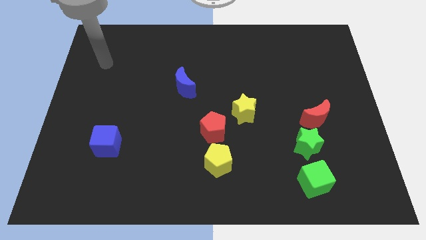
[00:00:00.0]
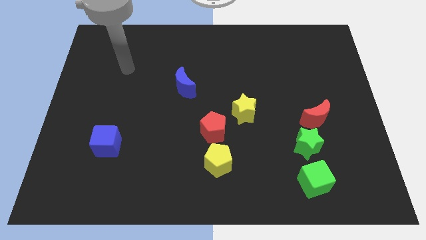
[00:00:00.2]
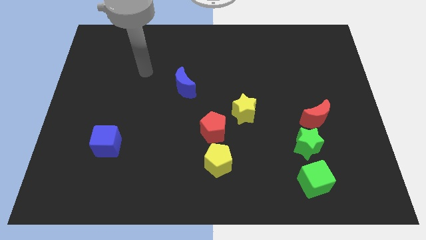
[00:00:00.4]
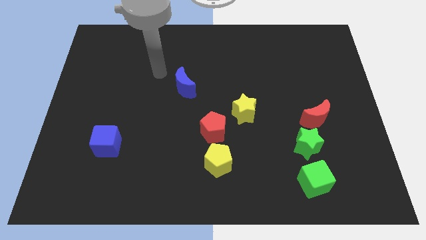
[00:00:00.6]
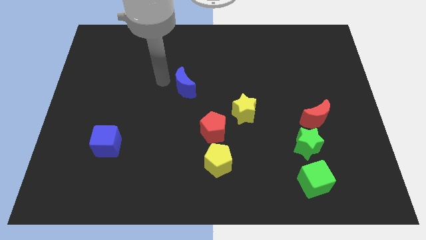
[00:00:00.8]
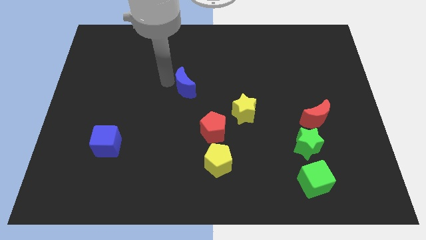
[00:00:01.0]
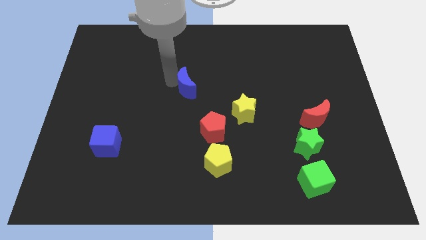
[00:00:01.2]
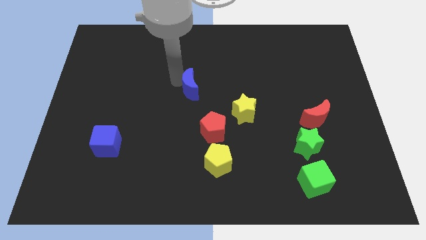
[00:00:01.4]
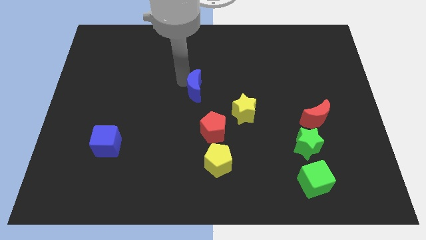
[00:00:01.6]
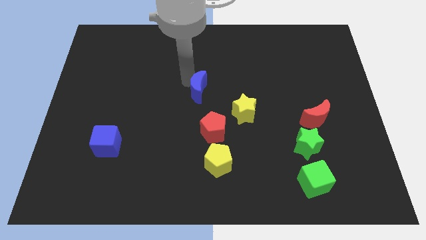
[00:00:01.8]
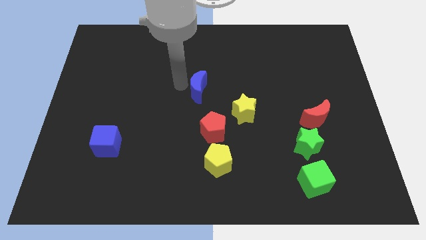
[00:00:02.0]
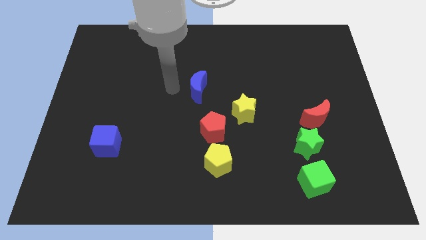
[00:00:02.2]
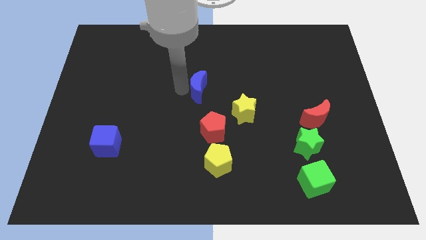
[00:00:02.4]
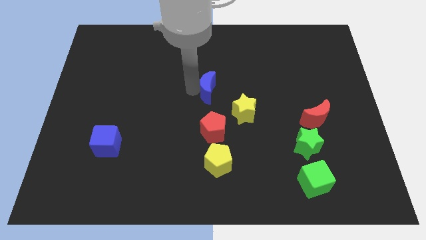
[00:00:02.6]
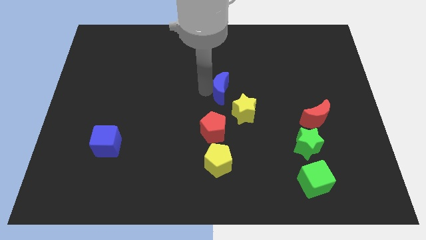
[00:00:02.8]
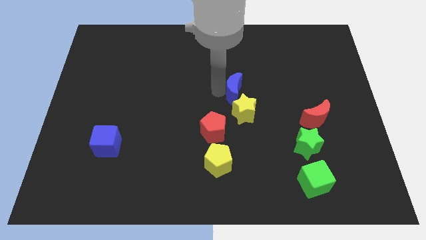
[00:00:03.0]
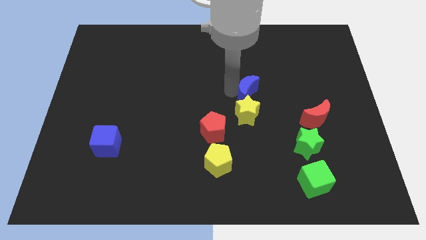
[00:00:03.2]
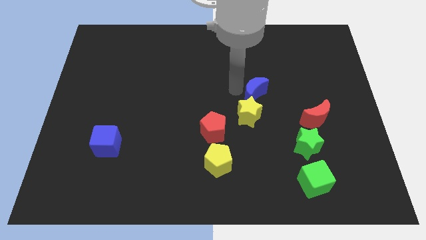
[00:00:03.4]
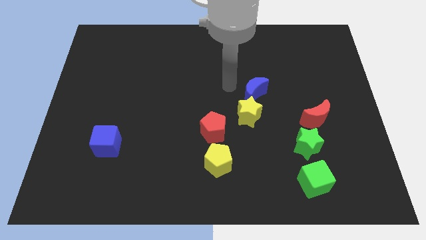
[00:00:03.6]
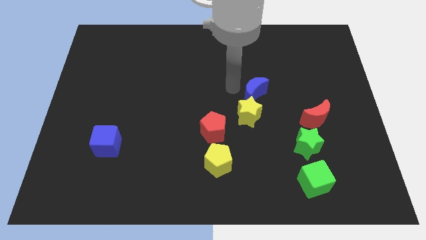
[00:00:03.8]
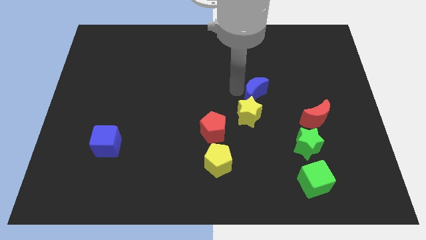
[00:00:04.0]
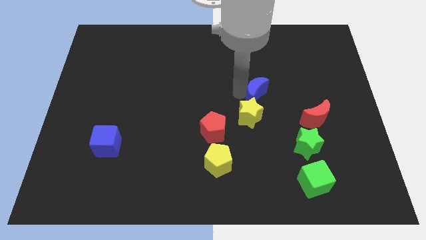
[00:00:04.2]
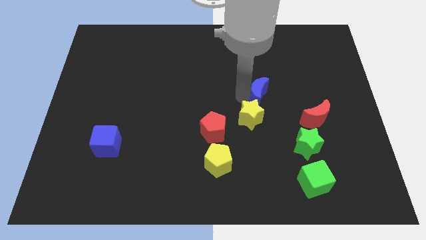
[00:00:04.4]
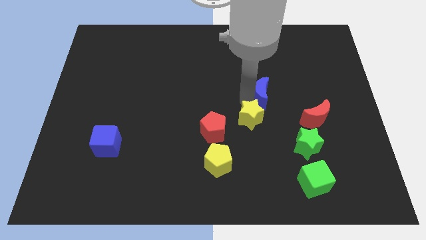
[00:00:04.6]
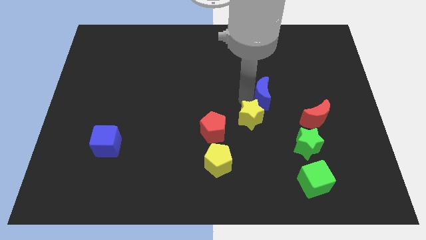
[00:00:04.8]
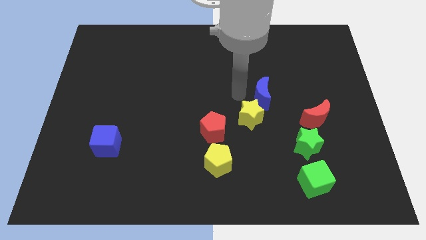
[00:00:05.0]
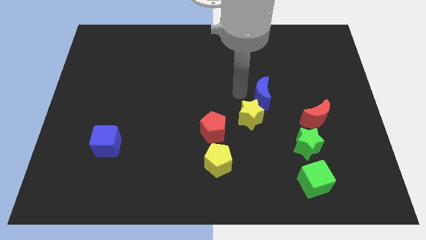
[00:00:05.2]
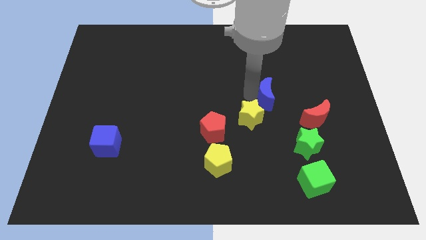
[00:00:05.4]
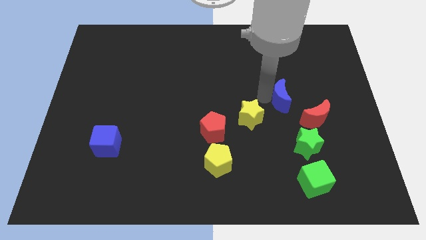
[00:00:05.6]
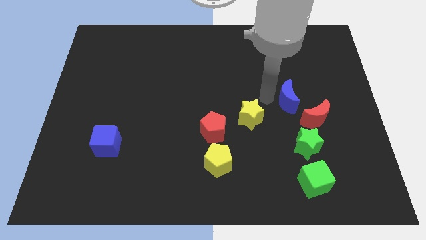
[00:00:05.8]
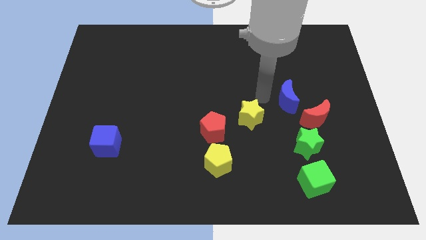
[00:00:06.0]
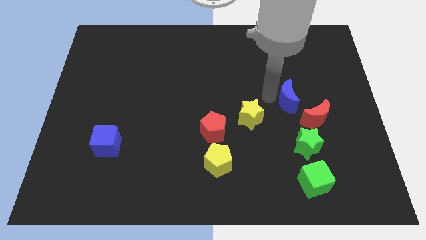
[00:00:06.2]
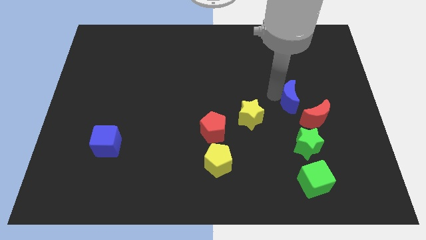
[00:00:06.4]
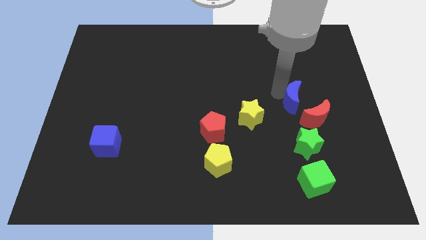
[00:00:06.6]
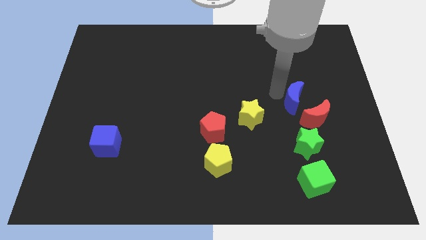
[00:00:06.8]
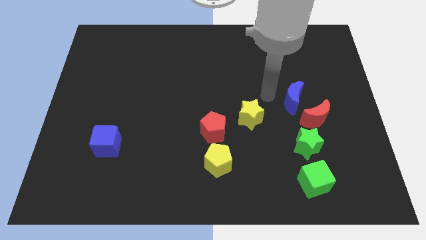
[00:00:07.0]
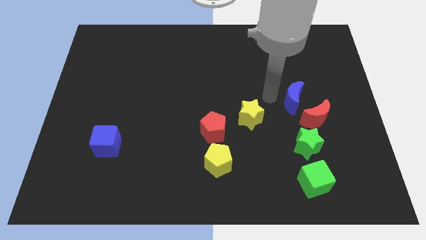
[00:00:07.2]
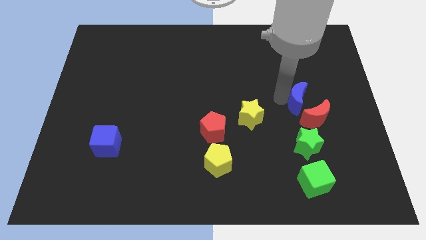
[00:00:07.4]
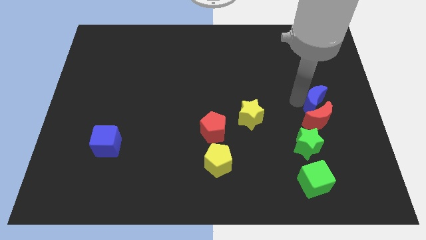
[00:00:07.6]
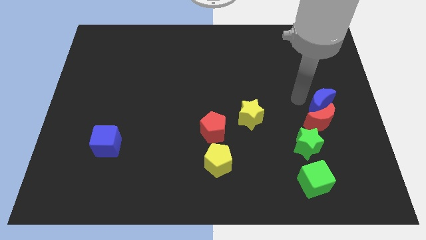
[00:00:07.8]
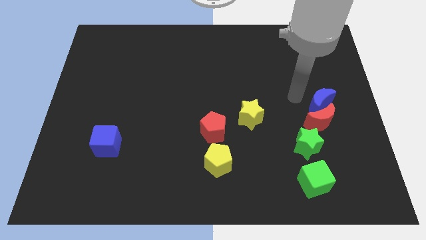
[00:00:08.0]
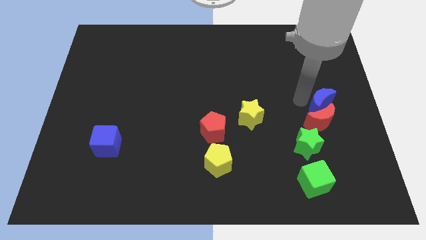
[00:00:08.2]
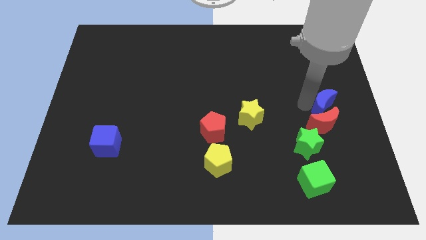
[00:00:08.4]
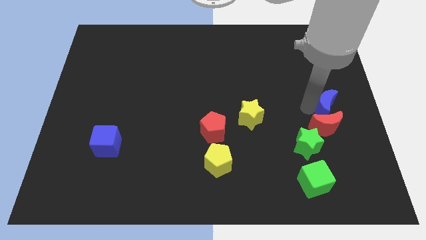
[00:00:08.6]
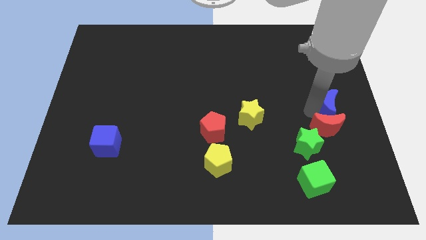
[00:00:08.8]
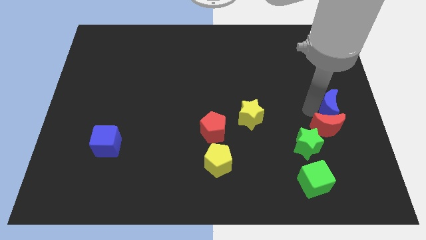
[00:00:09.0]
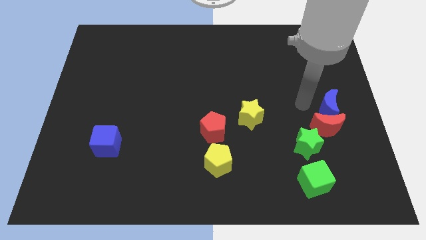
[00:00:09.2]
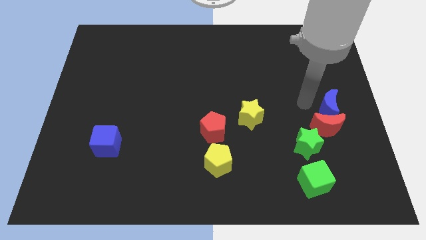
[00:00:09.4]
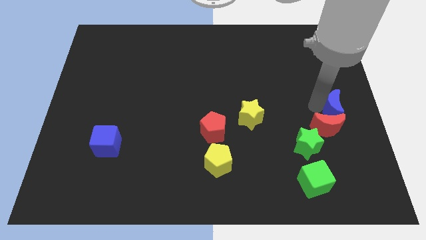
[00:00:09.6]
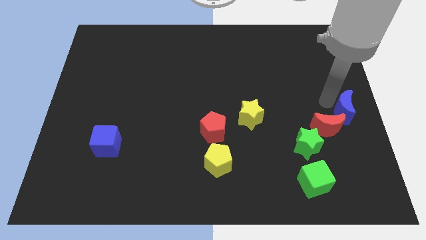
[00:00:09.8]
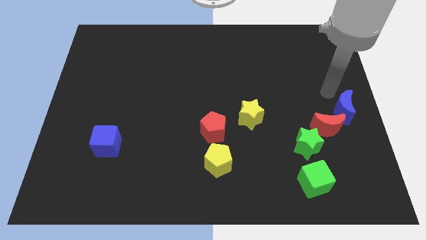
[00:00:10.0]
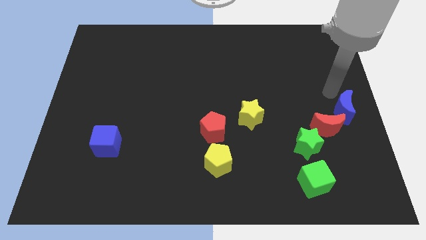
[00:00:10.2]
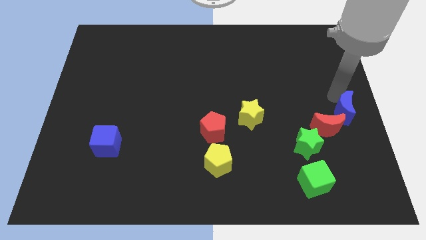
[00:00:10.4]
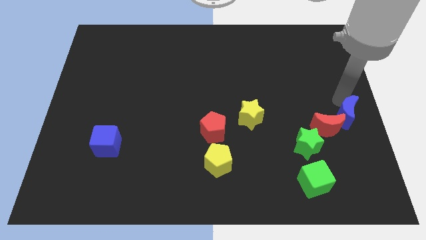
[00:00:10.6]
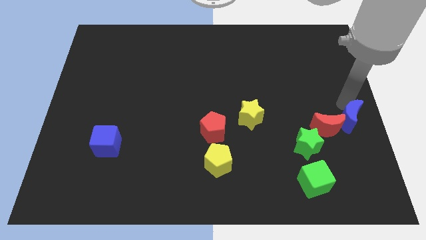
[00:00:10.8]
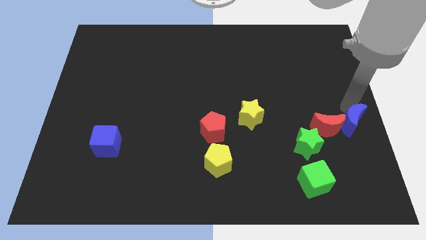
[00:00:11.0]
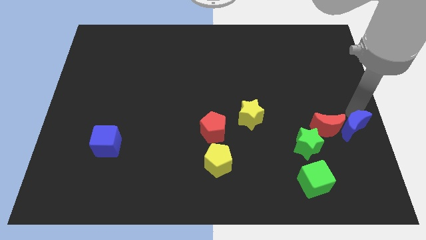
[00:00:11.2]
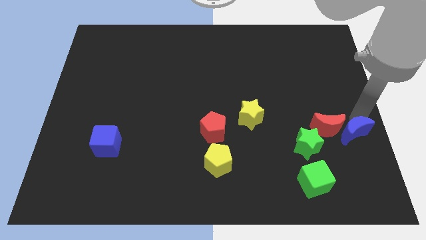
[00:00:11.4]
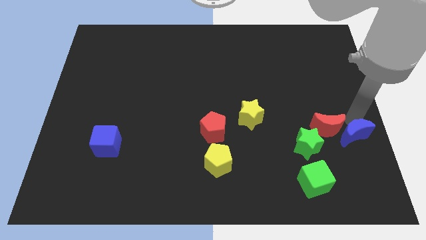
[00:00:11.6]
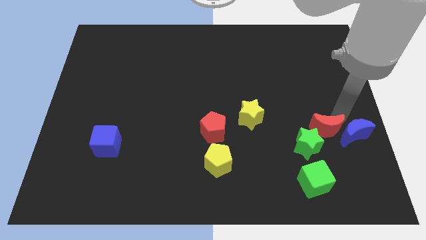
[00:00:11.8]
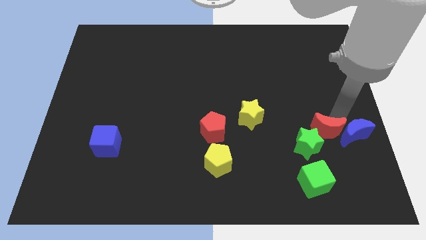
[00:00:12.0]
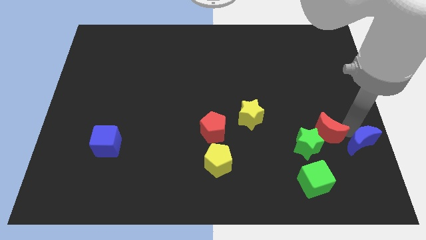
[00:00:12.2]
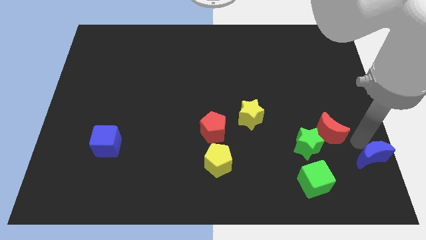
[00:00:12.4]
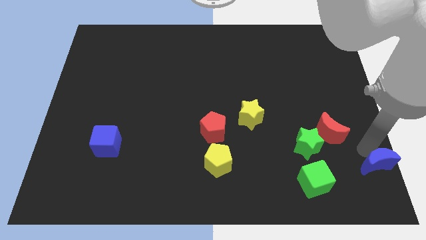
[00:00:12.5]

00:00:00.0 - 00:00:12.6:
put the blue moon to the bottom right
